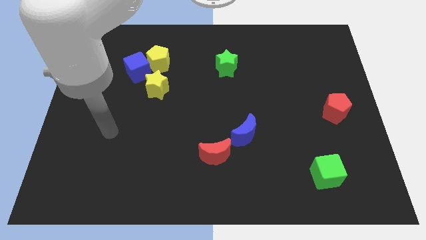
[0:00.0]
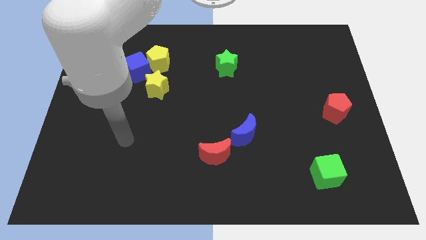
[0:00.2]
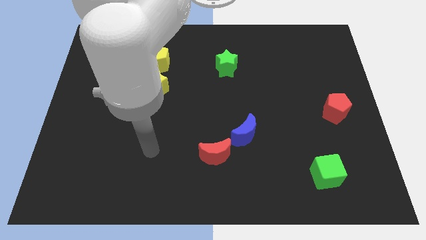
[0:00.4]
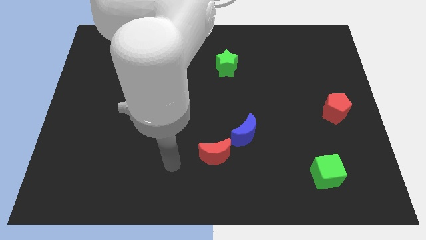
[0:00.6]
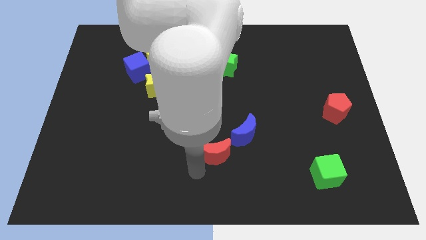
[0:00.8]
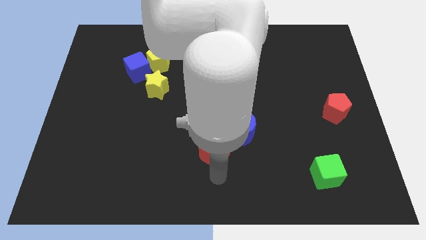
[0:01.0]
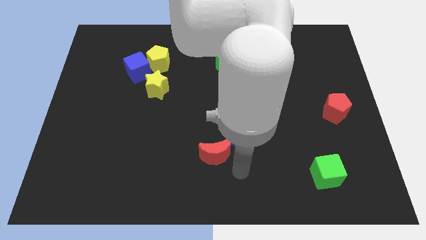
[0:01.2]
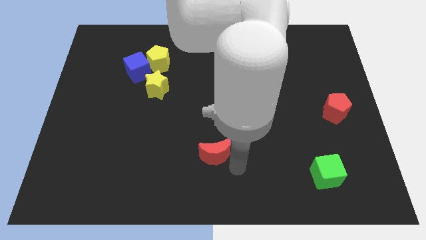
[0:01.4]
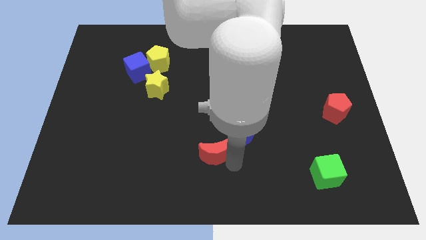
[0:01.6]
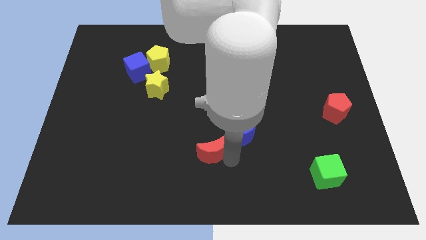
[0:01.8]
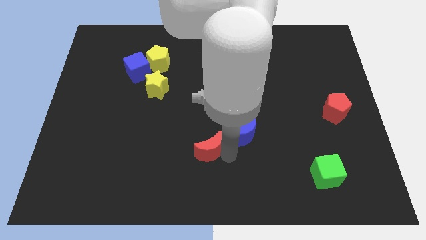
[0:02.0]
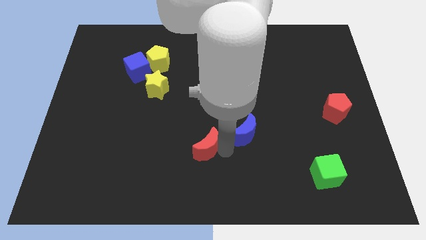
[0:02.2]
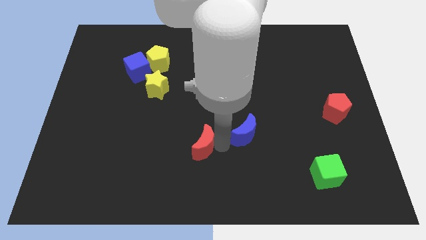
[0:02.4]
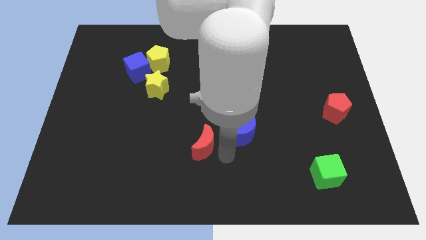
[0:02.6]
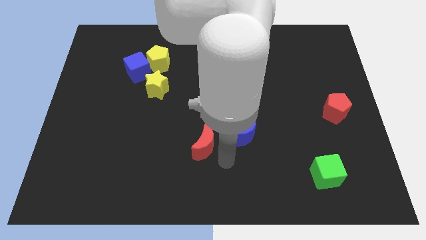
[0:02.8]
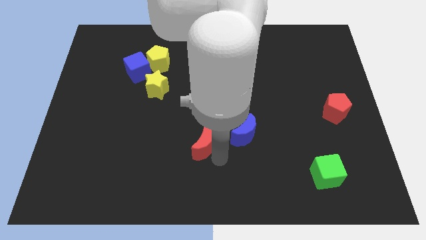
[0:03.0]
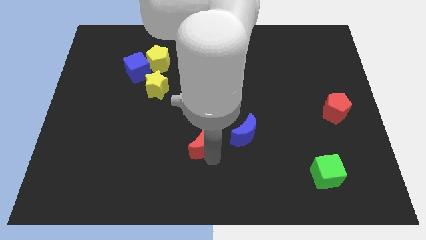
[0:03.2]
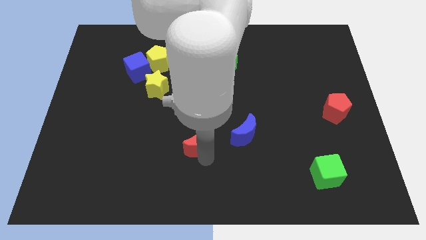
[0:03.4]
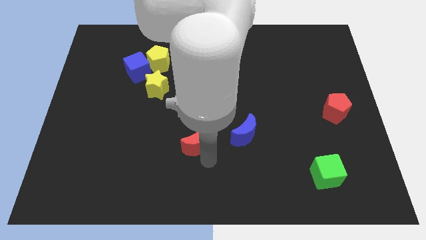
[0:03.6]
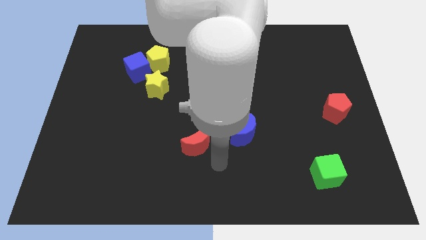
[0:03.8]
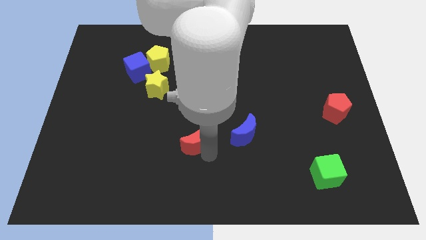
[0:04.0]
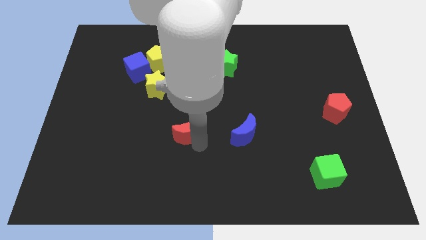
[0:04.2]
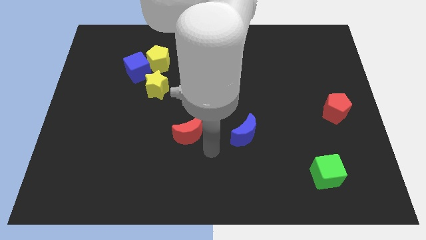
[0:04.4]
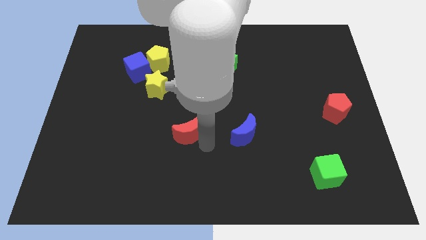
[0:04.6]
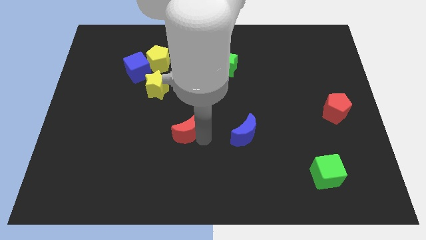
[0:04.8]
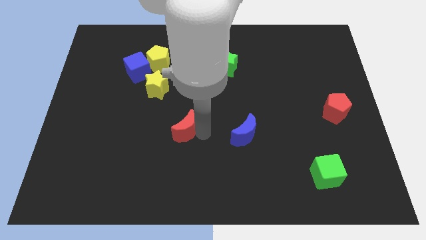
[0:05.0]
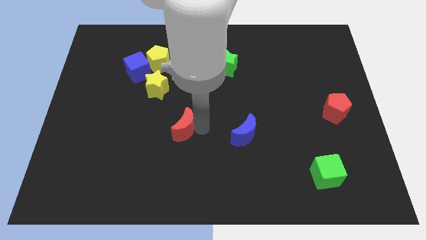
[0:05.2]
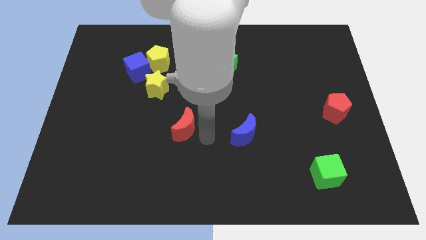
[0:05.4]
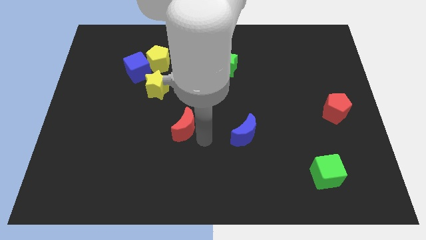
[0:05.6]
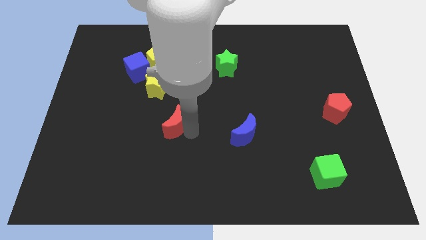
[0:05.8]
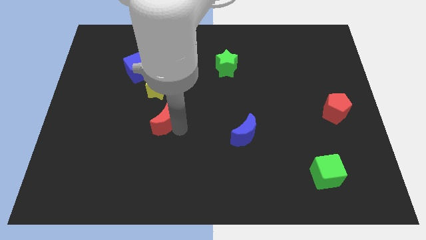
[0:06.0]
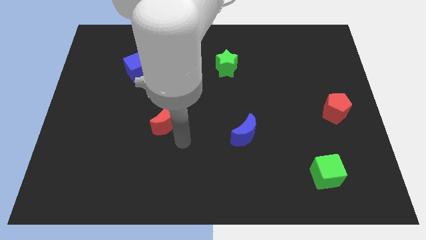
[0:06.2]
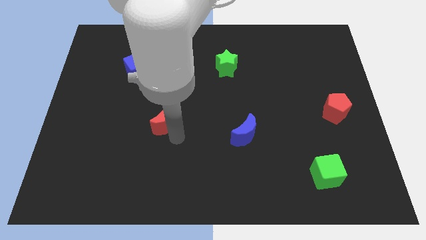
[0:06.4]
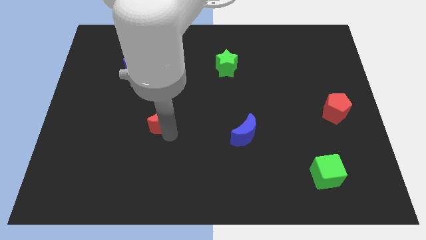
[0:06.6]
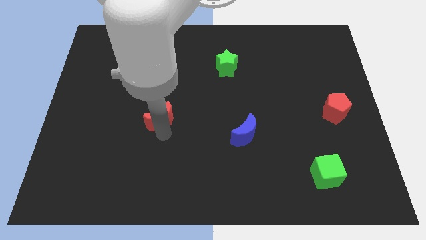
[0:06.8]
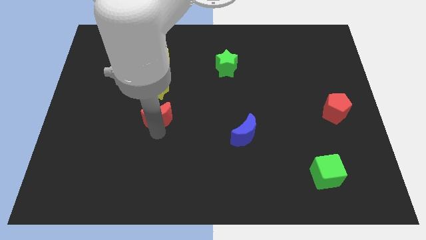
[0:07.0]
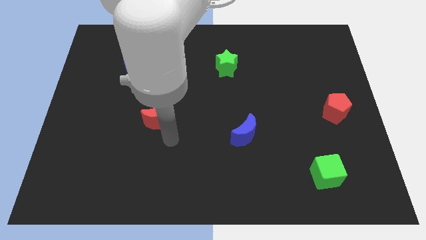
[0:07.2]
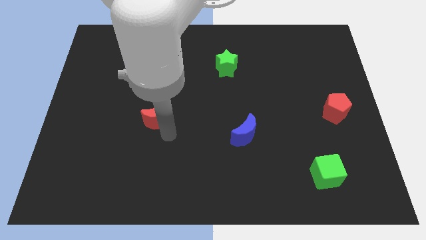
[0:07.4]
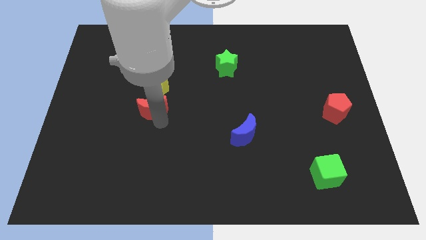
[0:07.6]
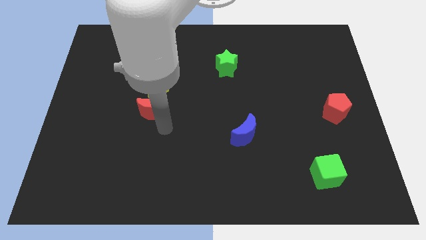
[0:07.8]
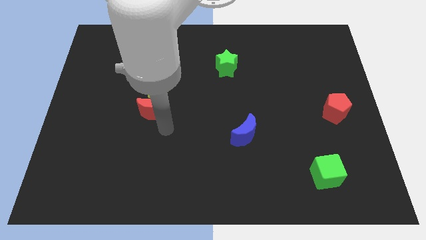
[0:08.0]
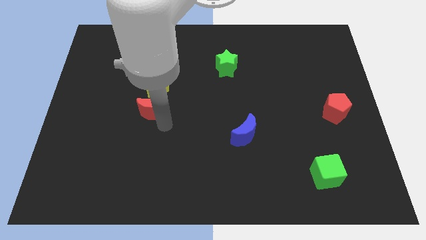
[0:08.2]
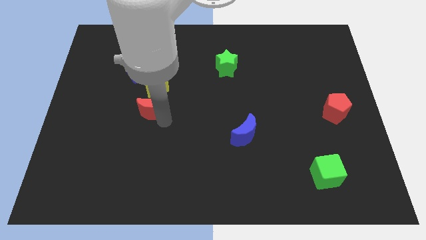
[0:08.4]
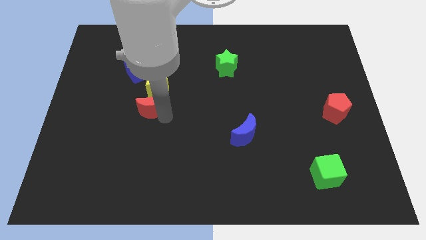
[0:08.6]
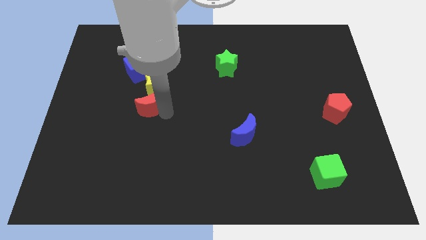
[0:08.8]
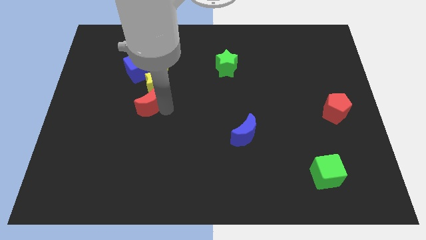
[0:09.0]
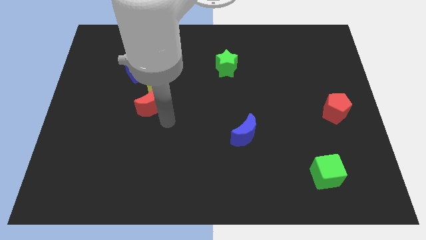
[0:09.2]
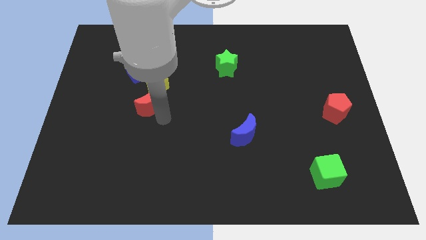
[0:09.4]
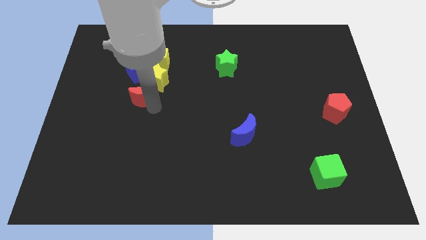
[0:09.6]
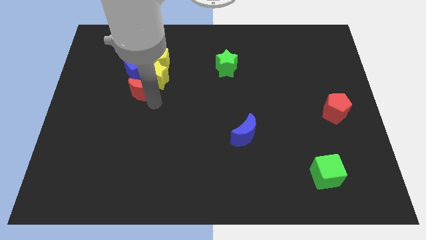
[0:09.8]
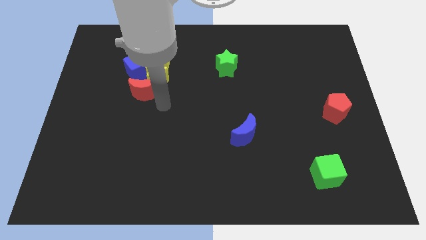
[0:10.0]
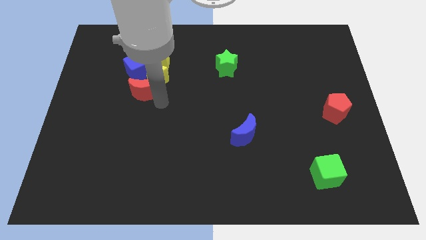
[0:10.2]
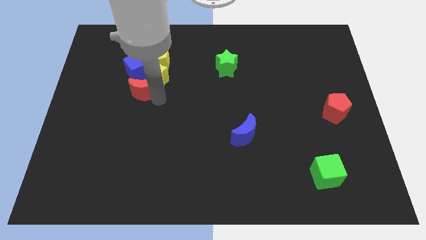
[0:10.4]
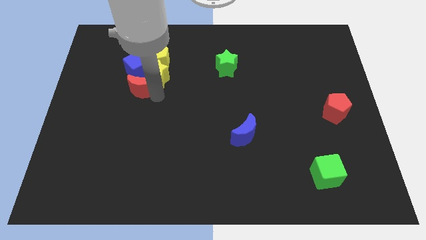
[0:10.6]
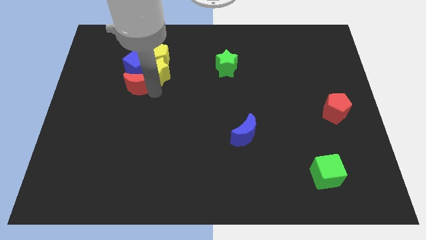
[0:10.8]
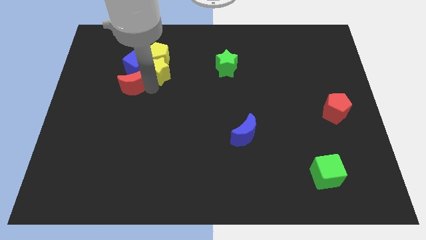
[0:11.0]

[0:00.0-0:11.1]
move the red moon towards the blue cube

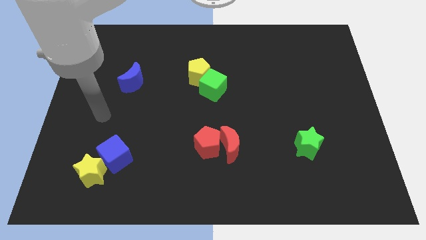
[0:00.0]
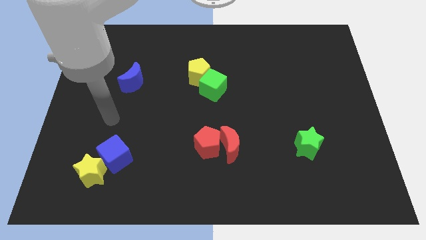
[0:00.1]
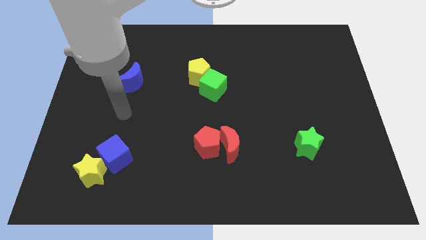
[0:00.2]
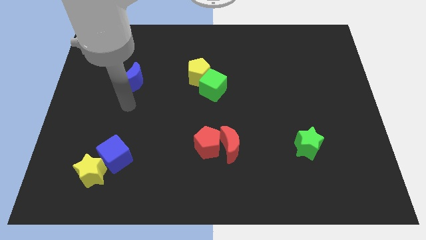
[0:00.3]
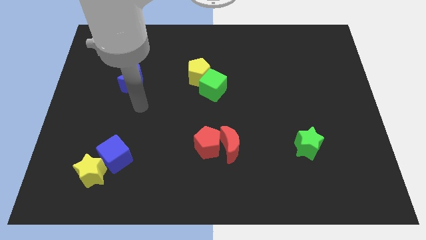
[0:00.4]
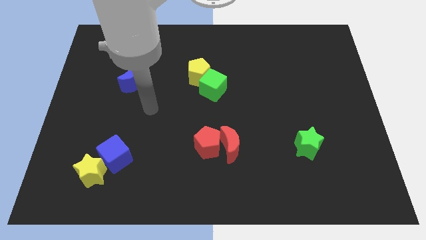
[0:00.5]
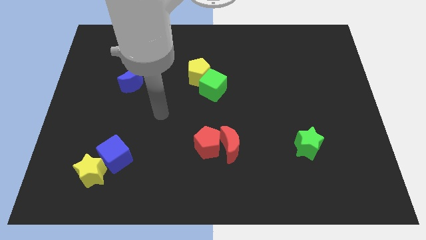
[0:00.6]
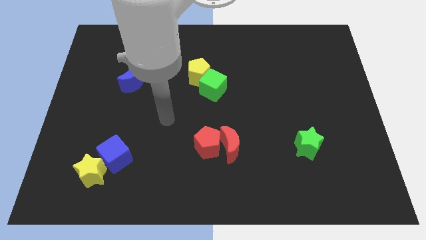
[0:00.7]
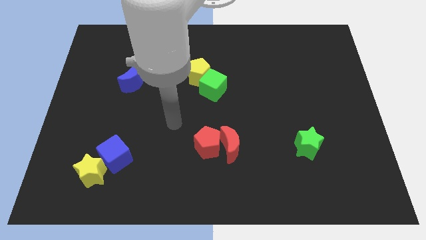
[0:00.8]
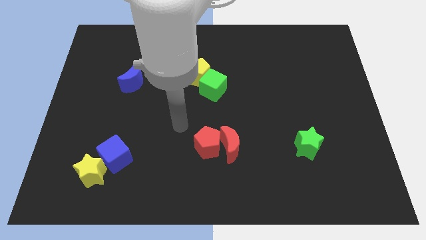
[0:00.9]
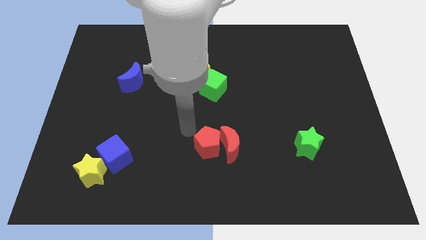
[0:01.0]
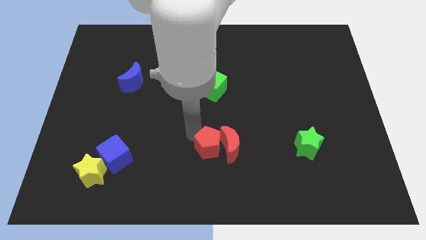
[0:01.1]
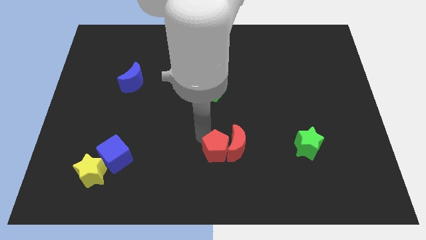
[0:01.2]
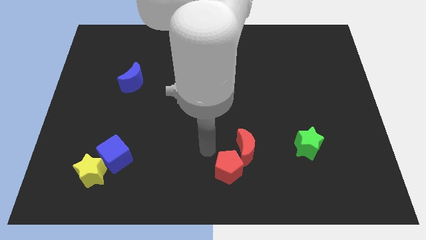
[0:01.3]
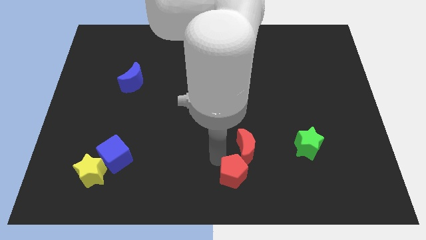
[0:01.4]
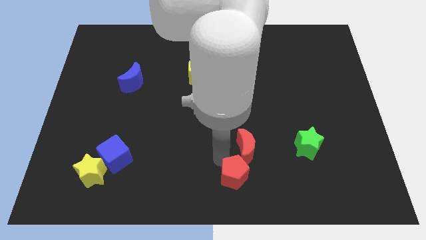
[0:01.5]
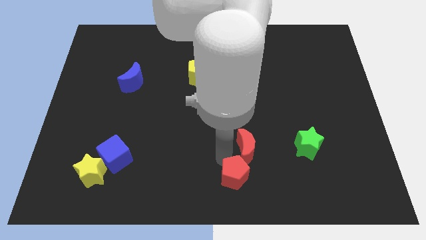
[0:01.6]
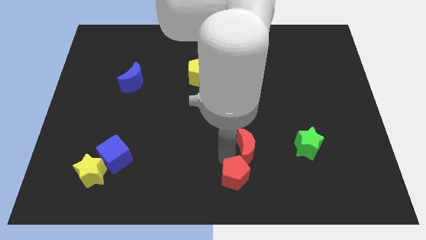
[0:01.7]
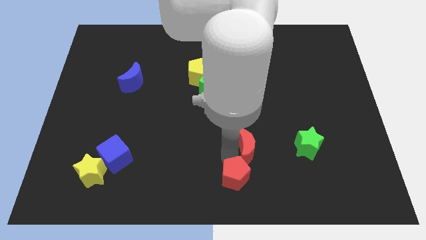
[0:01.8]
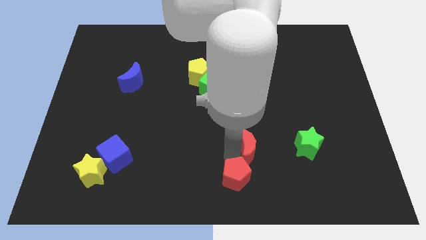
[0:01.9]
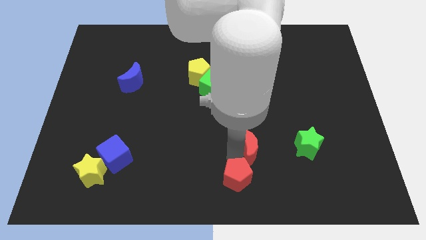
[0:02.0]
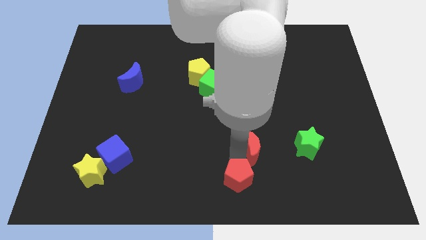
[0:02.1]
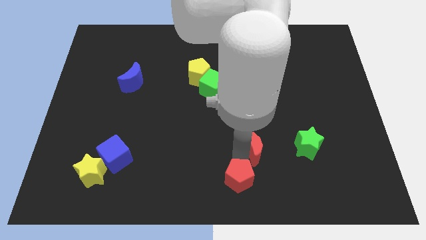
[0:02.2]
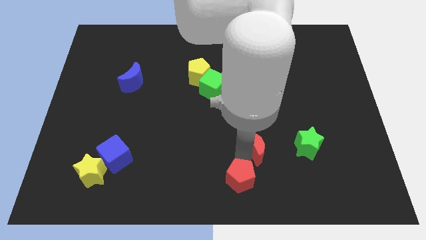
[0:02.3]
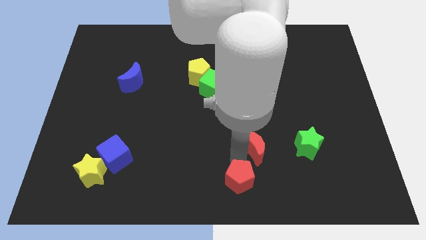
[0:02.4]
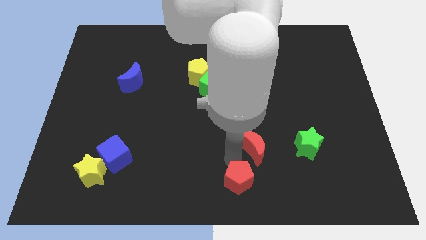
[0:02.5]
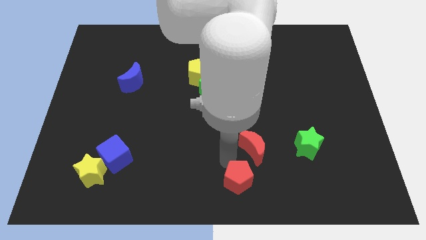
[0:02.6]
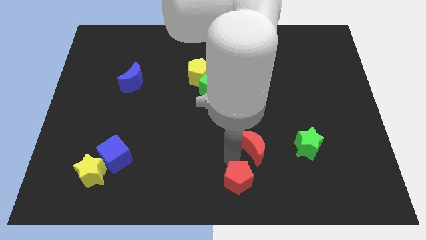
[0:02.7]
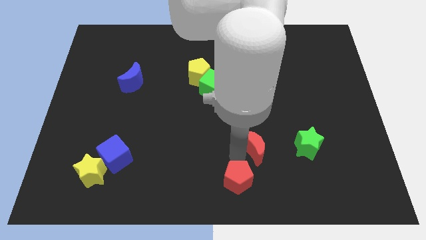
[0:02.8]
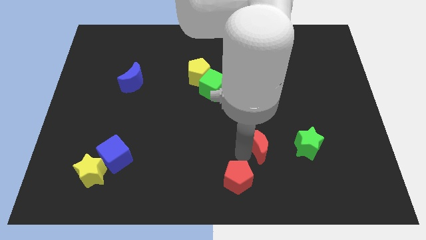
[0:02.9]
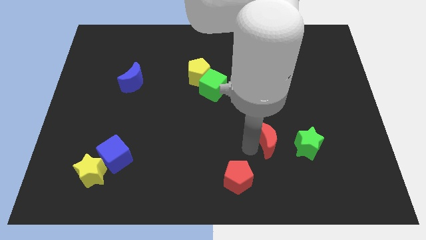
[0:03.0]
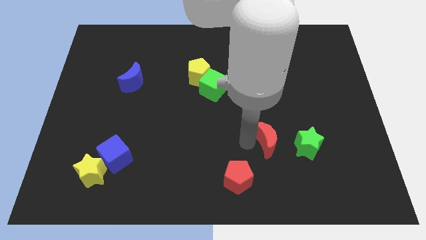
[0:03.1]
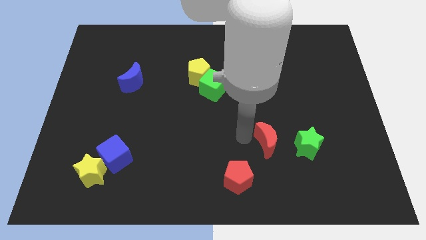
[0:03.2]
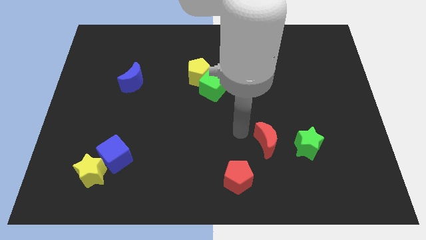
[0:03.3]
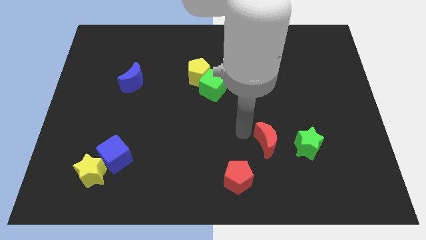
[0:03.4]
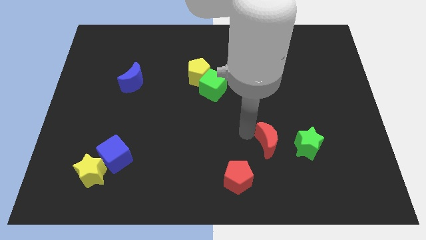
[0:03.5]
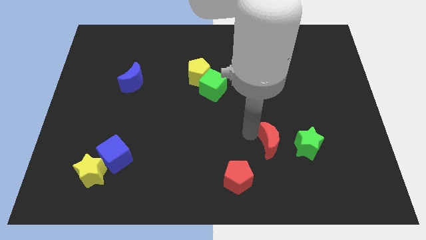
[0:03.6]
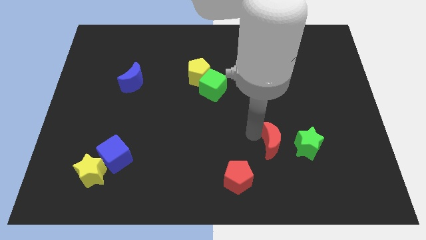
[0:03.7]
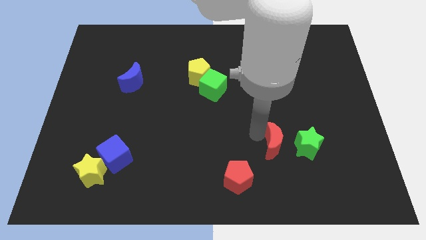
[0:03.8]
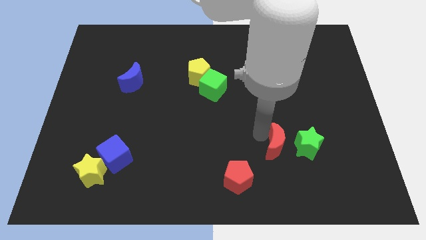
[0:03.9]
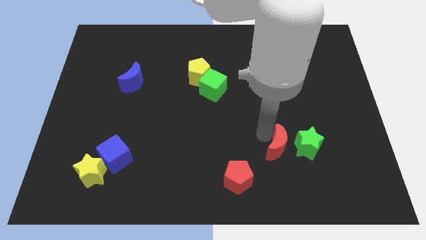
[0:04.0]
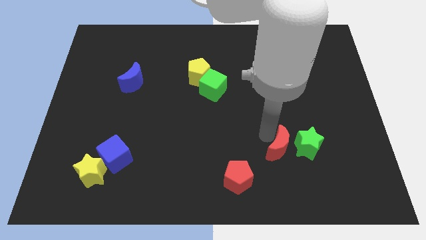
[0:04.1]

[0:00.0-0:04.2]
put the red moon to the green star
